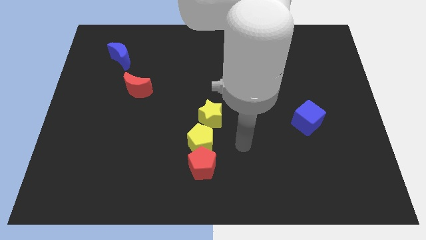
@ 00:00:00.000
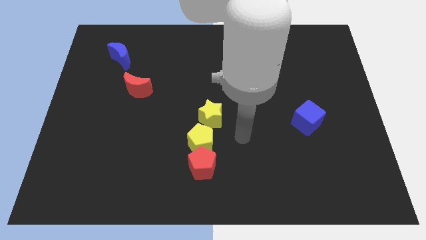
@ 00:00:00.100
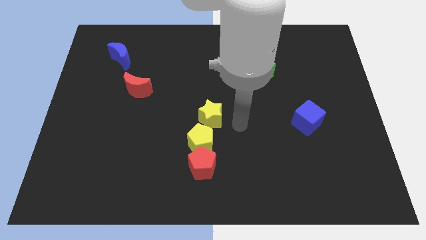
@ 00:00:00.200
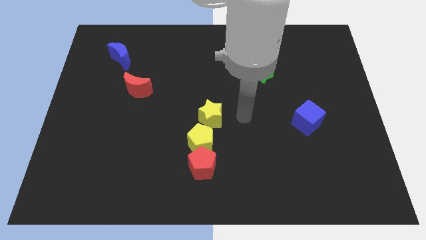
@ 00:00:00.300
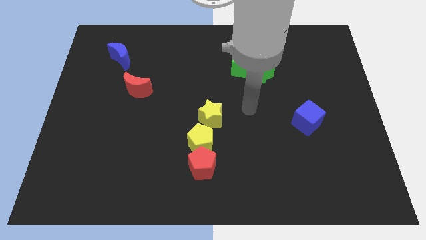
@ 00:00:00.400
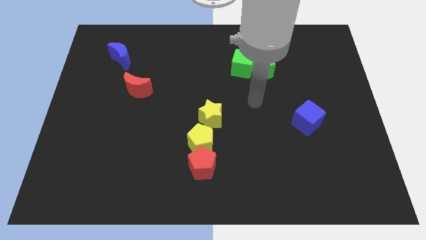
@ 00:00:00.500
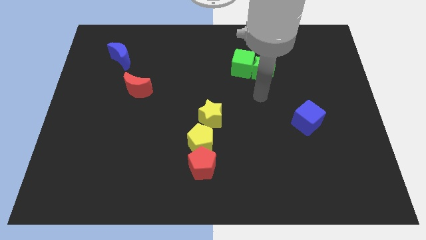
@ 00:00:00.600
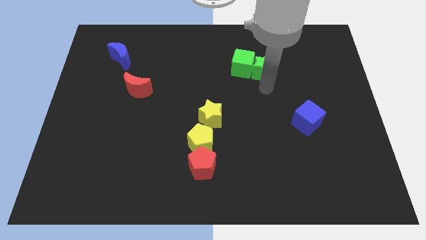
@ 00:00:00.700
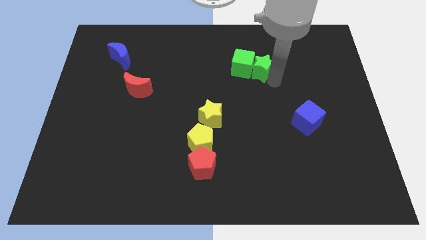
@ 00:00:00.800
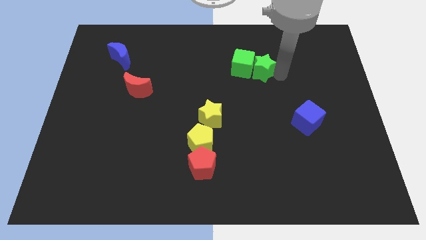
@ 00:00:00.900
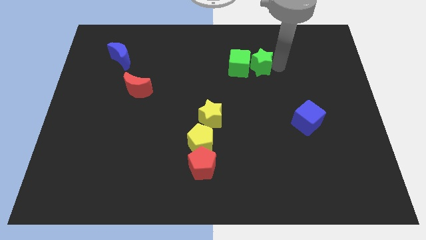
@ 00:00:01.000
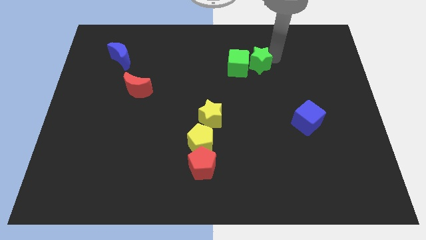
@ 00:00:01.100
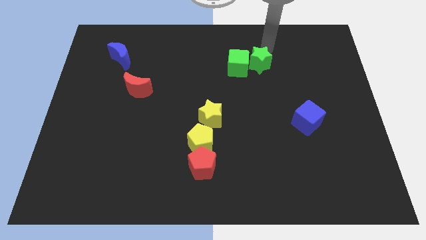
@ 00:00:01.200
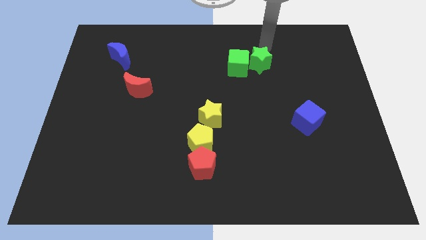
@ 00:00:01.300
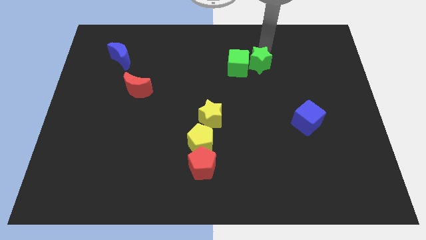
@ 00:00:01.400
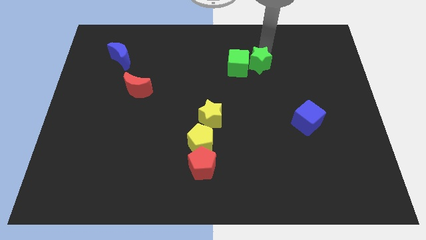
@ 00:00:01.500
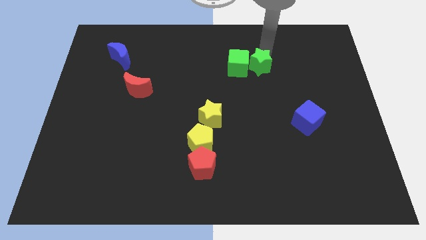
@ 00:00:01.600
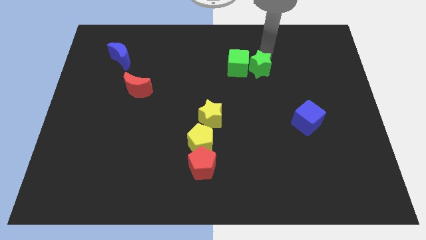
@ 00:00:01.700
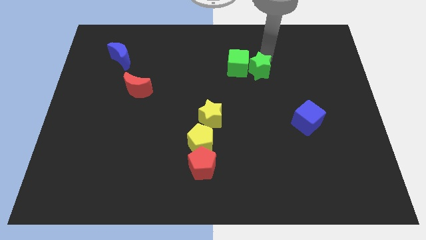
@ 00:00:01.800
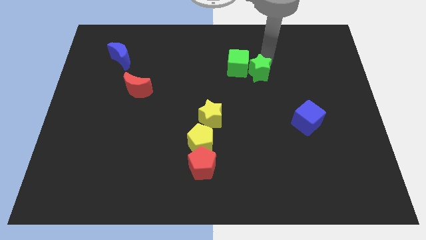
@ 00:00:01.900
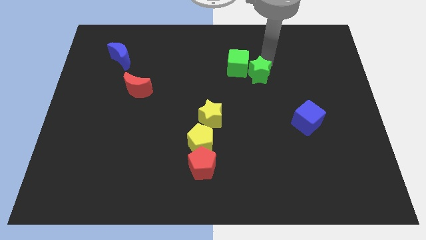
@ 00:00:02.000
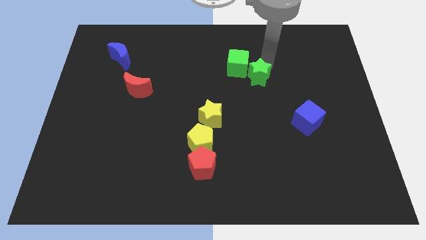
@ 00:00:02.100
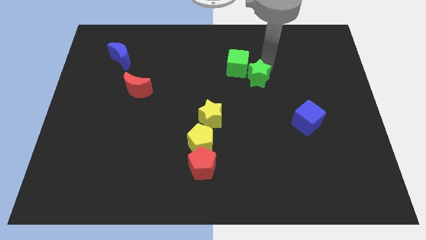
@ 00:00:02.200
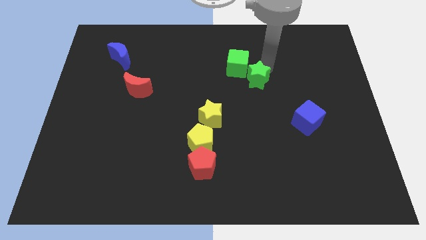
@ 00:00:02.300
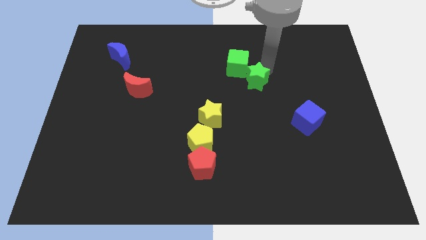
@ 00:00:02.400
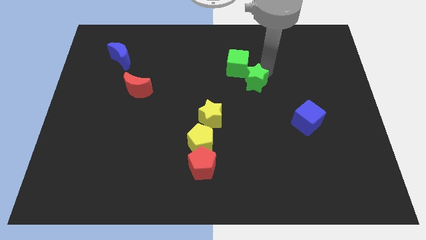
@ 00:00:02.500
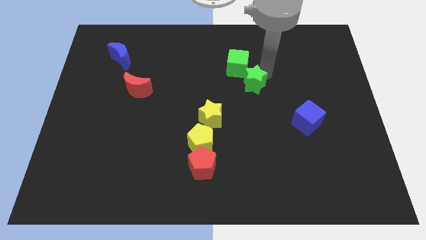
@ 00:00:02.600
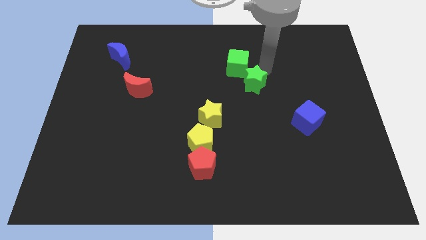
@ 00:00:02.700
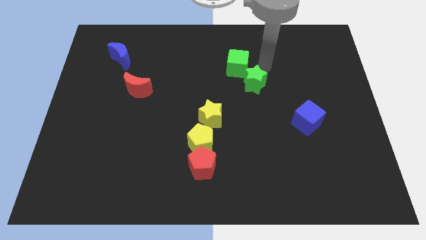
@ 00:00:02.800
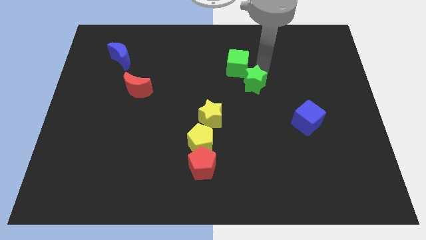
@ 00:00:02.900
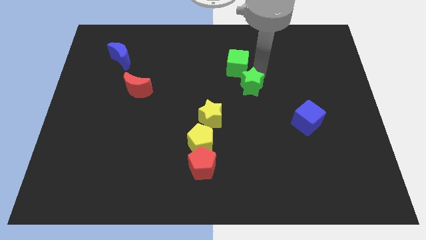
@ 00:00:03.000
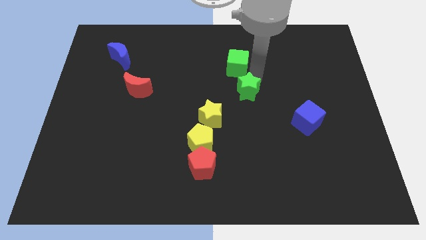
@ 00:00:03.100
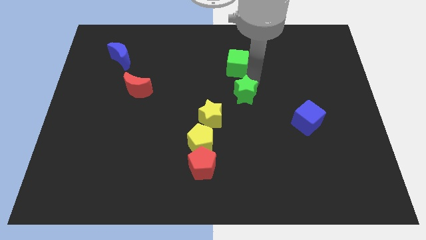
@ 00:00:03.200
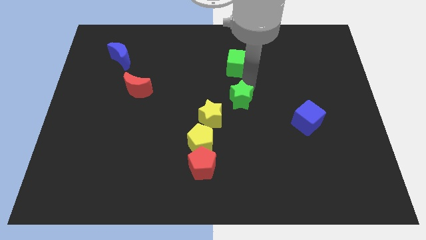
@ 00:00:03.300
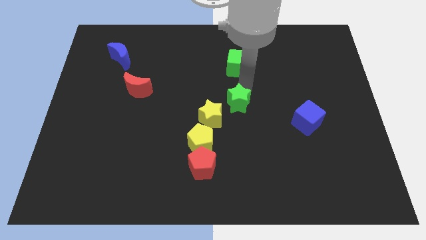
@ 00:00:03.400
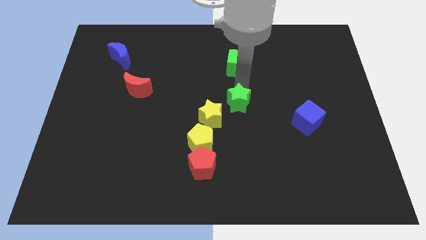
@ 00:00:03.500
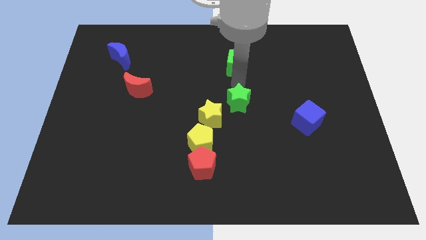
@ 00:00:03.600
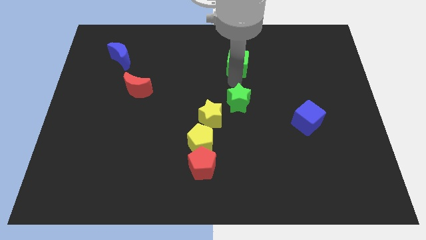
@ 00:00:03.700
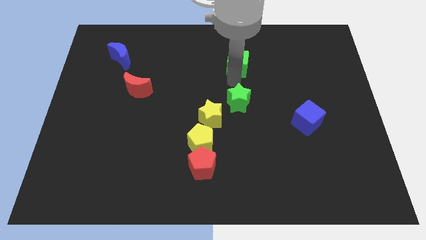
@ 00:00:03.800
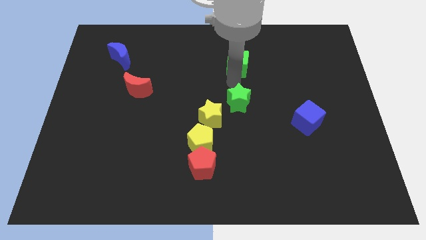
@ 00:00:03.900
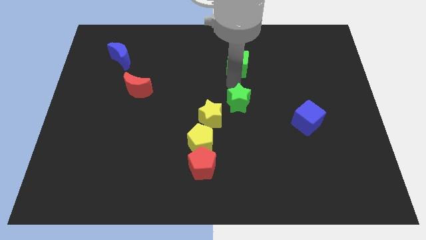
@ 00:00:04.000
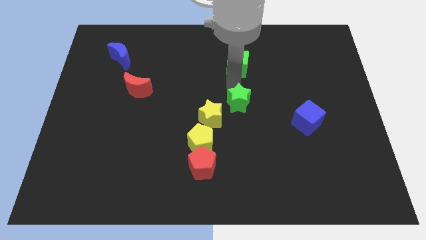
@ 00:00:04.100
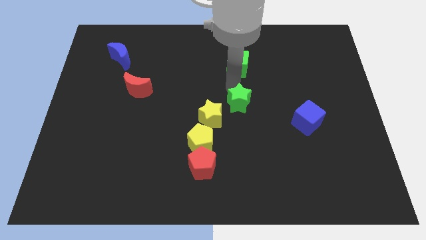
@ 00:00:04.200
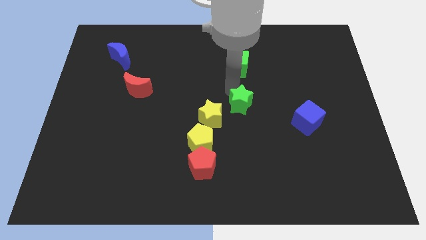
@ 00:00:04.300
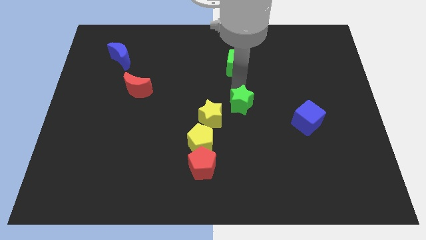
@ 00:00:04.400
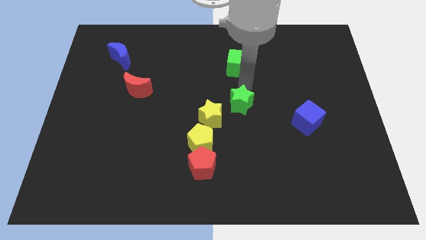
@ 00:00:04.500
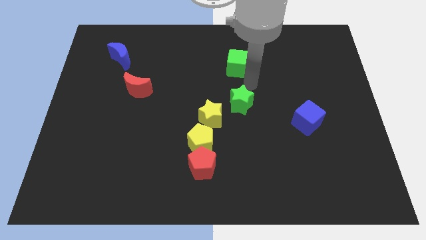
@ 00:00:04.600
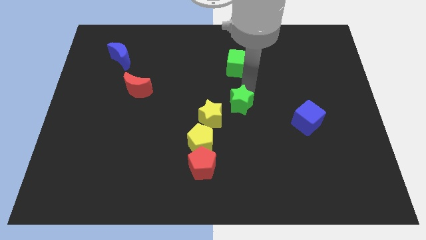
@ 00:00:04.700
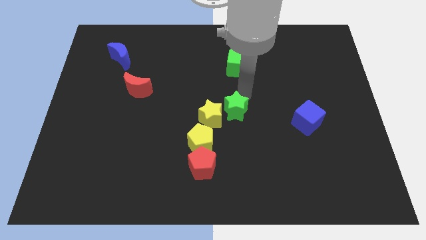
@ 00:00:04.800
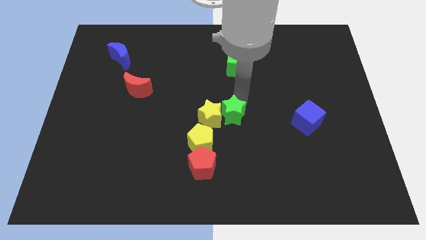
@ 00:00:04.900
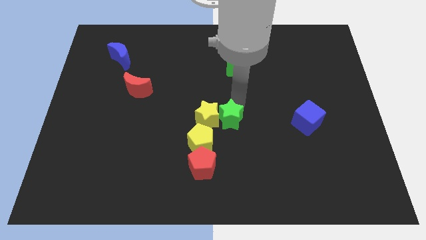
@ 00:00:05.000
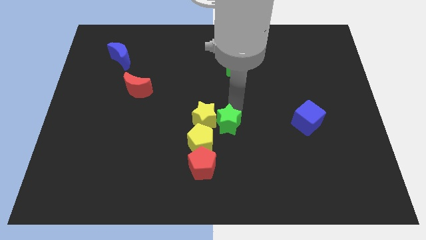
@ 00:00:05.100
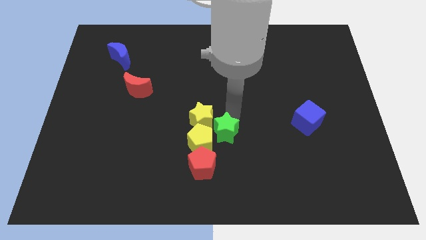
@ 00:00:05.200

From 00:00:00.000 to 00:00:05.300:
push the green star close to the yellow pentagon

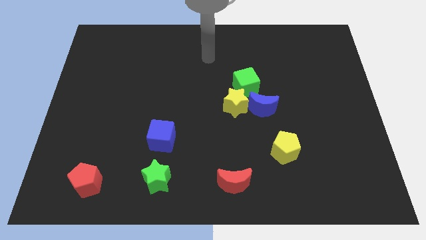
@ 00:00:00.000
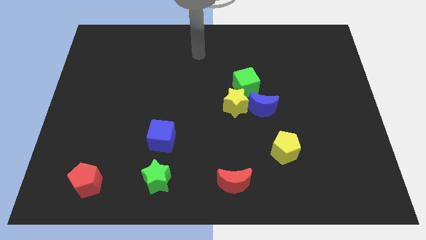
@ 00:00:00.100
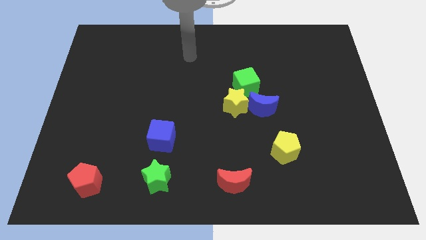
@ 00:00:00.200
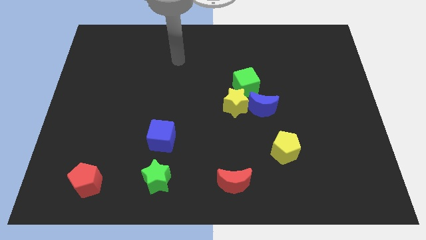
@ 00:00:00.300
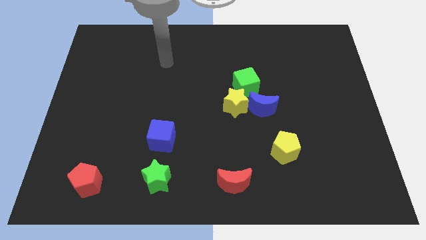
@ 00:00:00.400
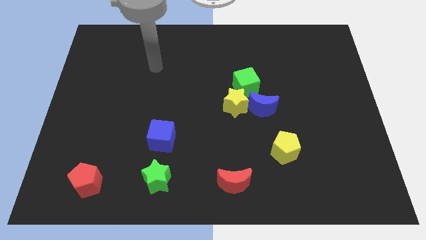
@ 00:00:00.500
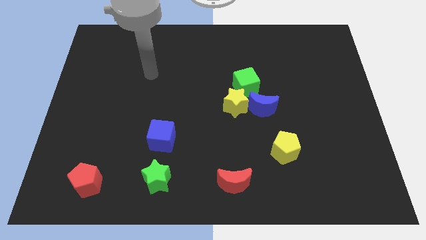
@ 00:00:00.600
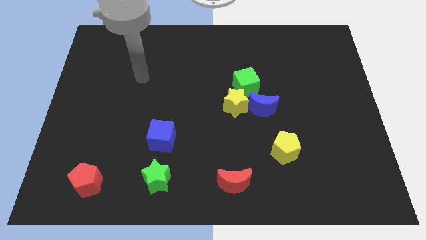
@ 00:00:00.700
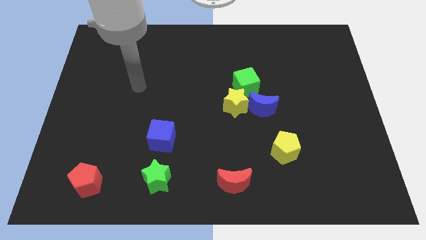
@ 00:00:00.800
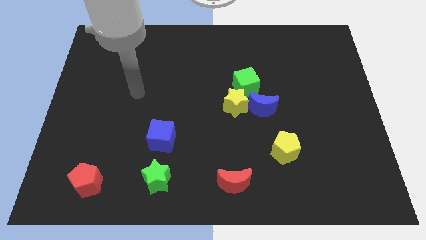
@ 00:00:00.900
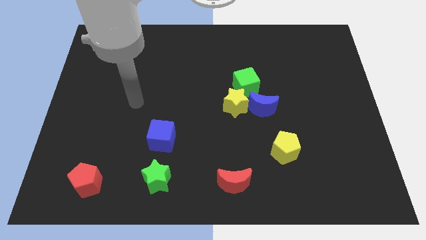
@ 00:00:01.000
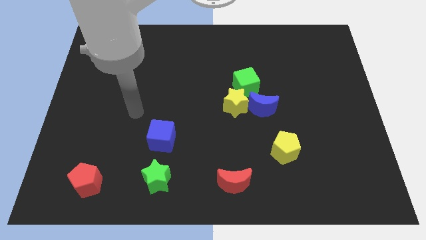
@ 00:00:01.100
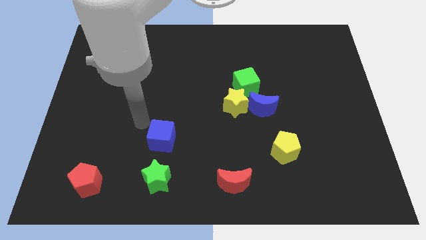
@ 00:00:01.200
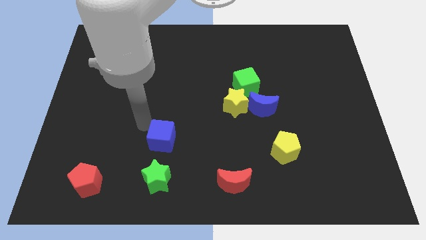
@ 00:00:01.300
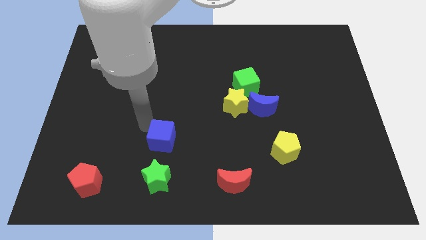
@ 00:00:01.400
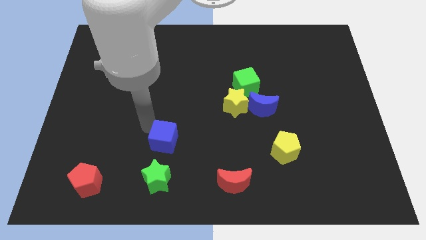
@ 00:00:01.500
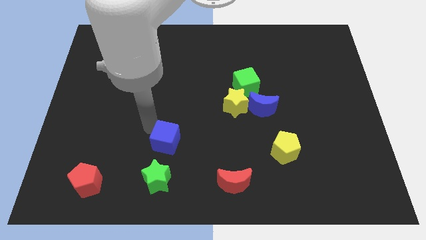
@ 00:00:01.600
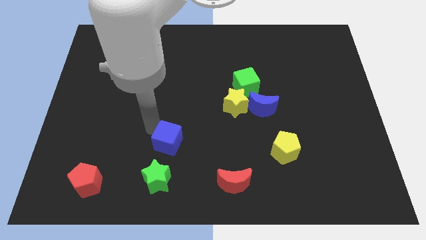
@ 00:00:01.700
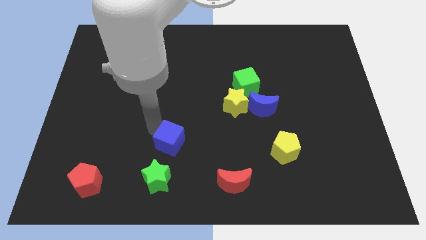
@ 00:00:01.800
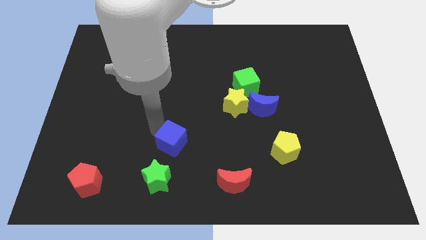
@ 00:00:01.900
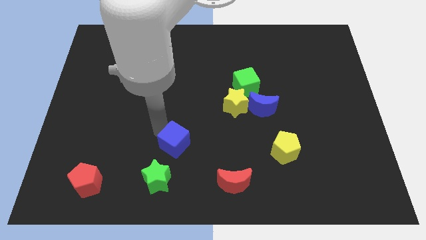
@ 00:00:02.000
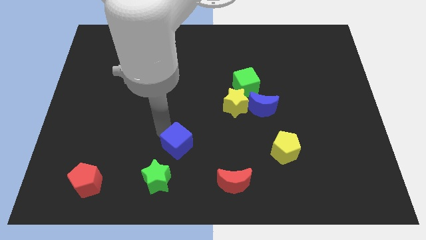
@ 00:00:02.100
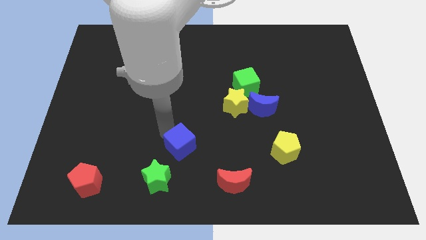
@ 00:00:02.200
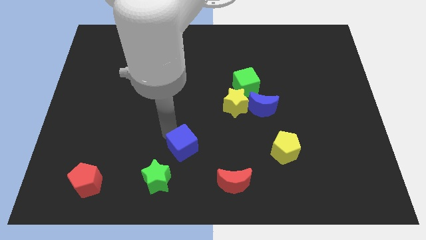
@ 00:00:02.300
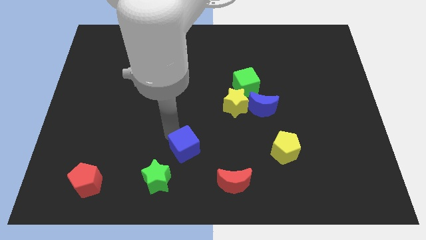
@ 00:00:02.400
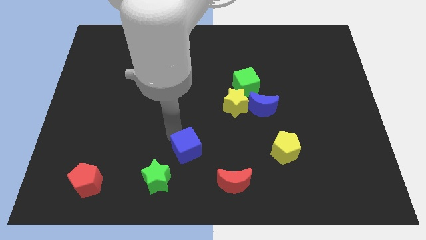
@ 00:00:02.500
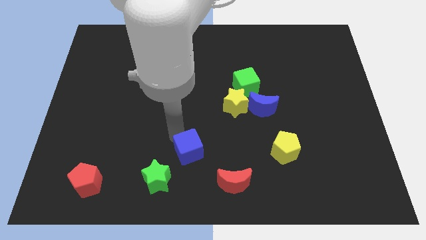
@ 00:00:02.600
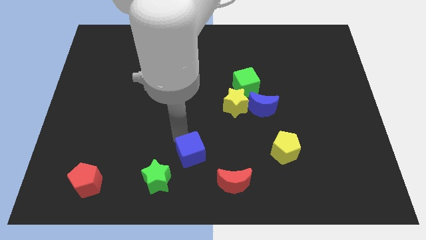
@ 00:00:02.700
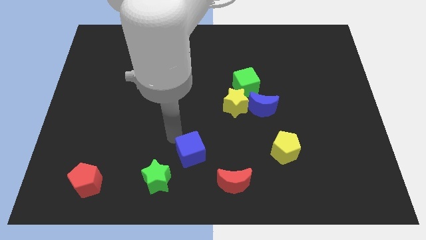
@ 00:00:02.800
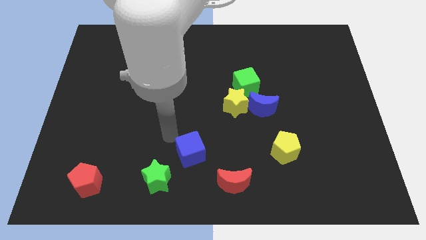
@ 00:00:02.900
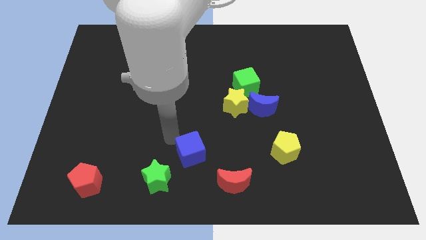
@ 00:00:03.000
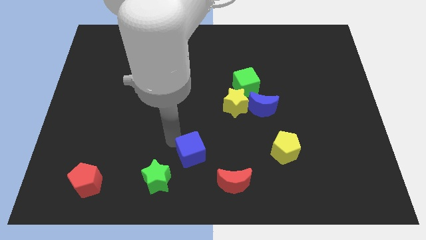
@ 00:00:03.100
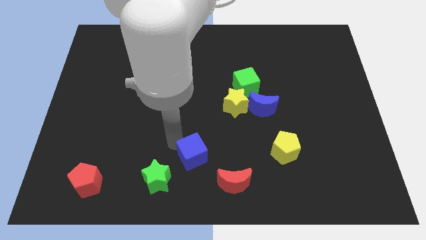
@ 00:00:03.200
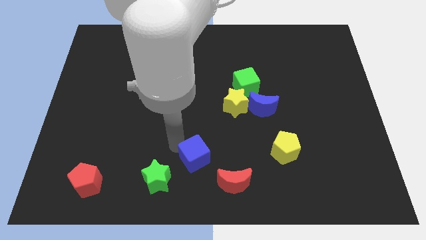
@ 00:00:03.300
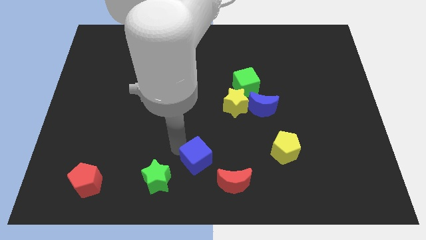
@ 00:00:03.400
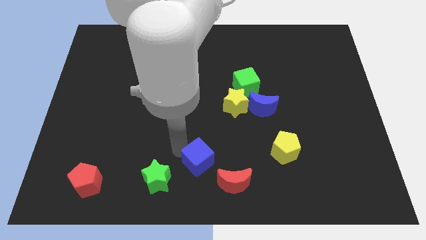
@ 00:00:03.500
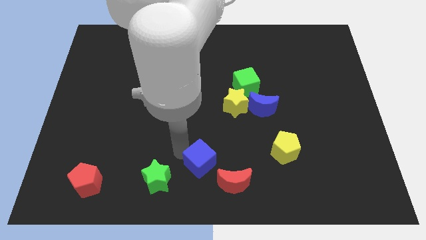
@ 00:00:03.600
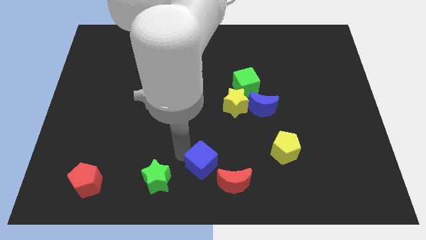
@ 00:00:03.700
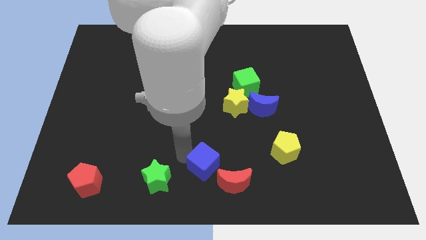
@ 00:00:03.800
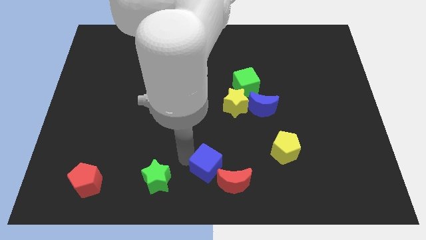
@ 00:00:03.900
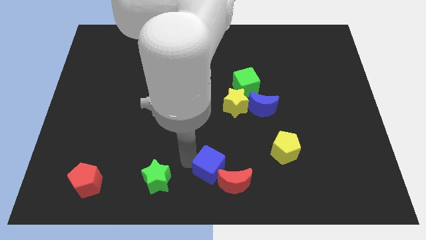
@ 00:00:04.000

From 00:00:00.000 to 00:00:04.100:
push the blue cube towards the red moon
